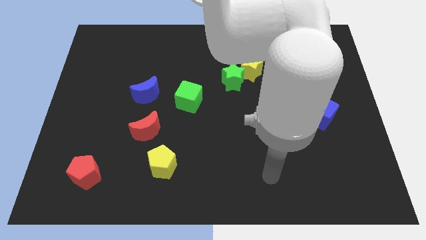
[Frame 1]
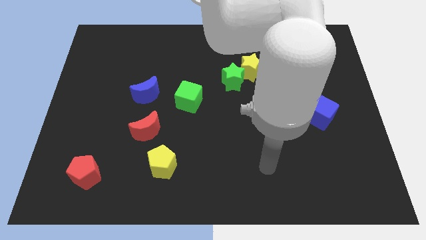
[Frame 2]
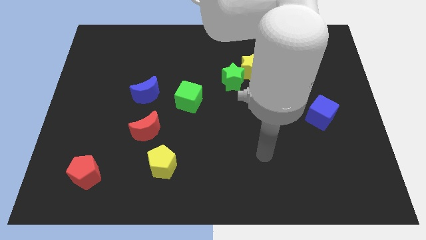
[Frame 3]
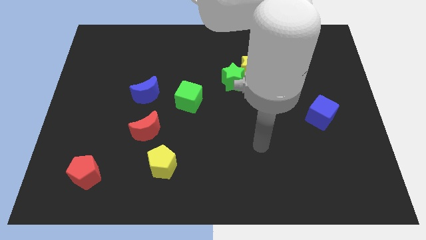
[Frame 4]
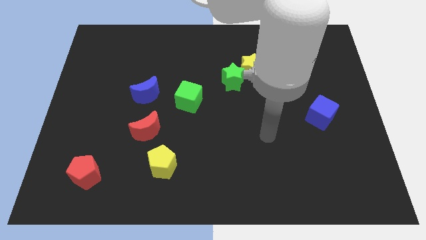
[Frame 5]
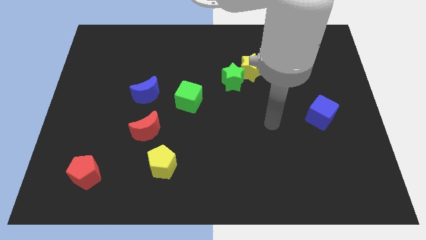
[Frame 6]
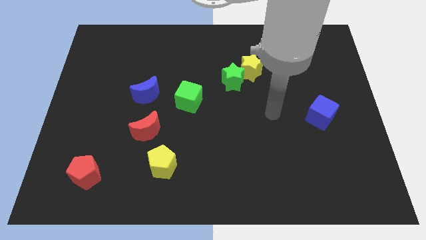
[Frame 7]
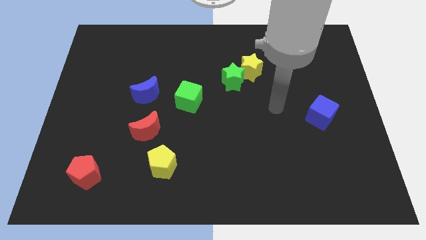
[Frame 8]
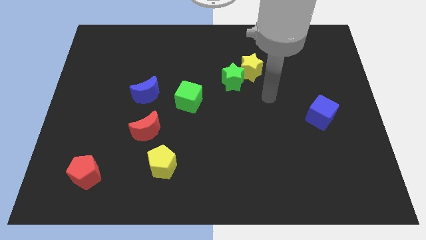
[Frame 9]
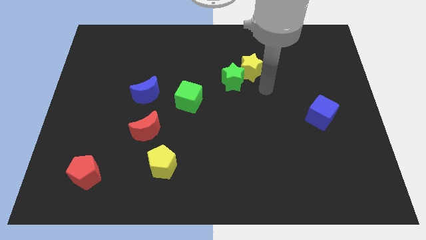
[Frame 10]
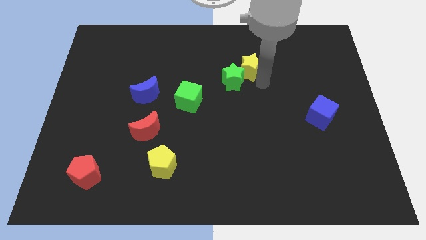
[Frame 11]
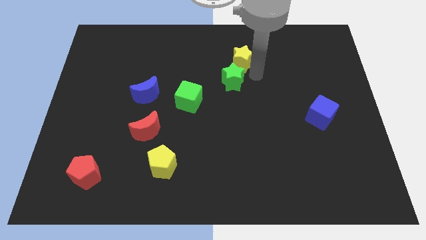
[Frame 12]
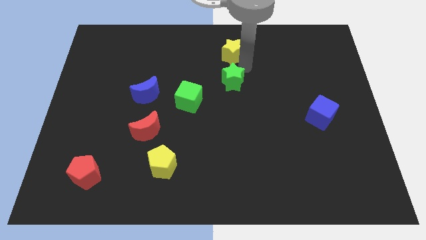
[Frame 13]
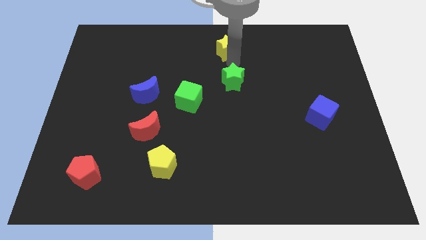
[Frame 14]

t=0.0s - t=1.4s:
separate the green star from the yellow star

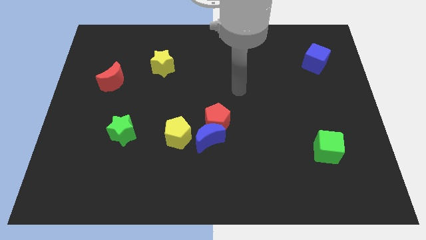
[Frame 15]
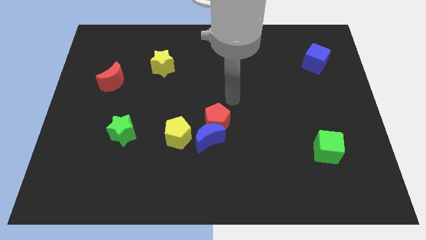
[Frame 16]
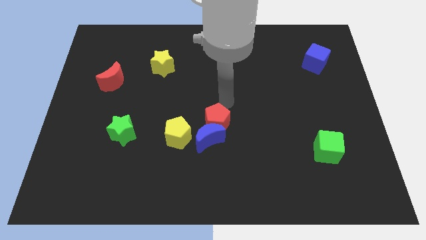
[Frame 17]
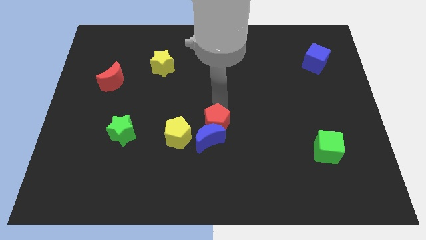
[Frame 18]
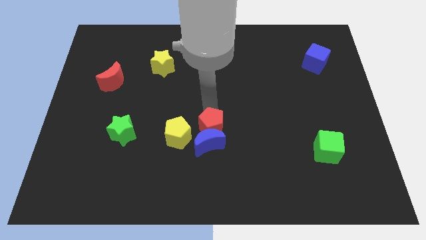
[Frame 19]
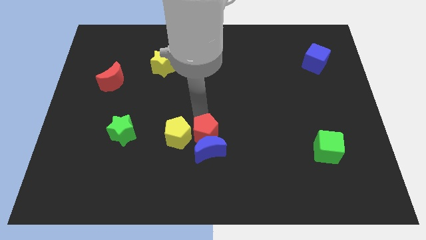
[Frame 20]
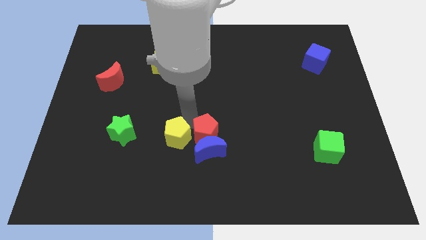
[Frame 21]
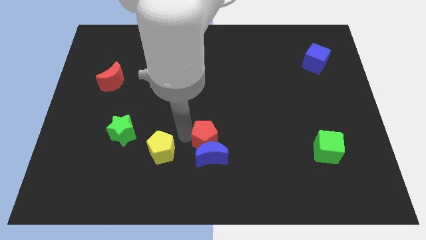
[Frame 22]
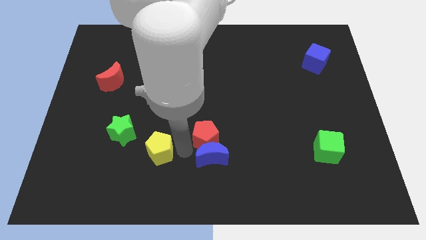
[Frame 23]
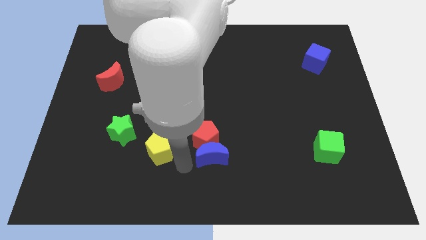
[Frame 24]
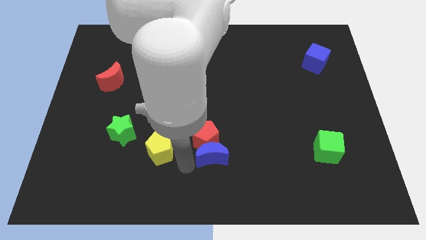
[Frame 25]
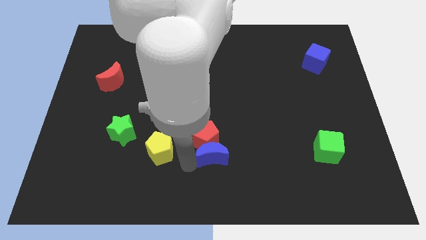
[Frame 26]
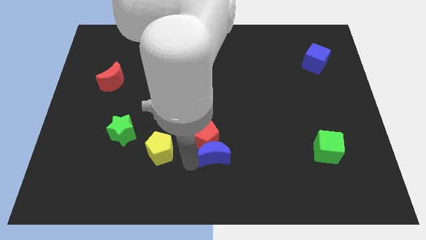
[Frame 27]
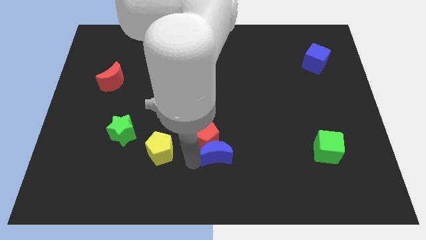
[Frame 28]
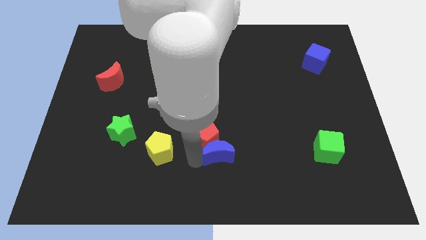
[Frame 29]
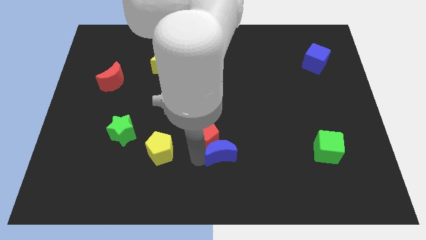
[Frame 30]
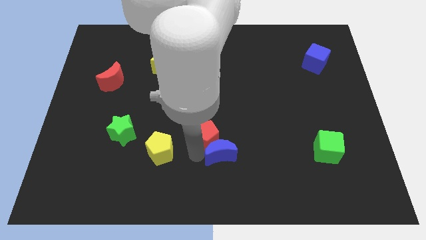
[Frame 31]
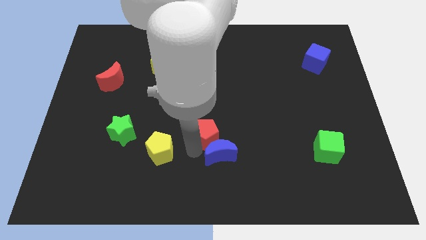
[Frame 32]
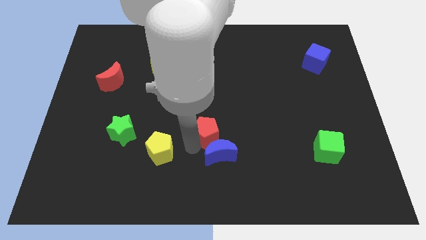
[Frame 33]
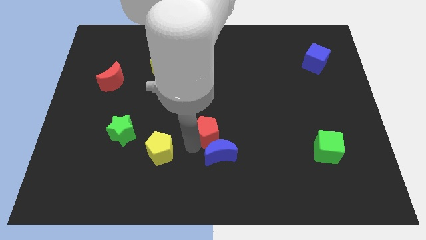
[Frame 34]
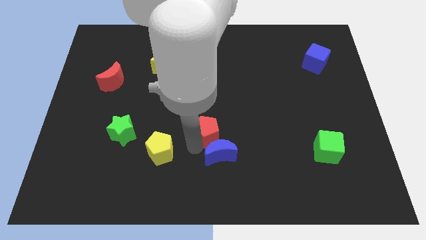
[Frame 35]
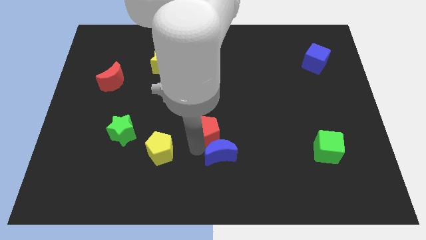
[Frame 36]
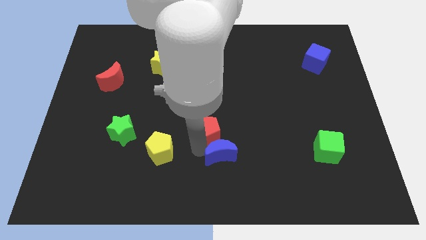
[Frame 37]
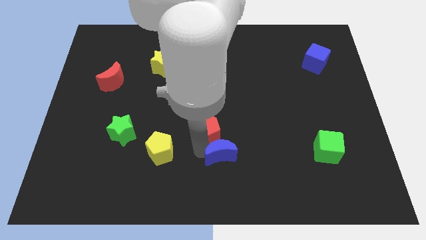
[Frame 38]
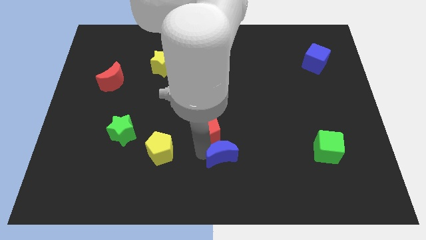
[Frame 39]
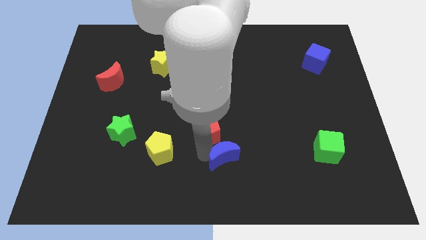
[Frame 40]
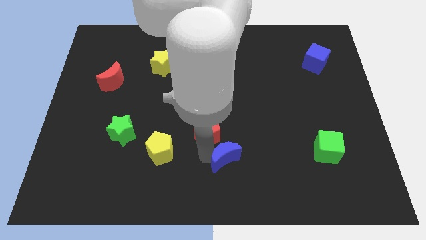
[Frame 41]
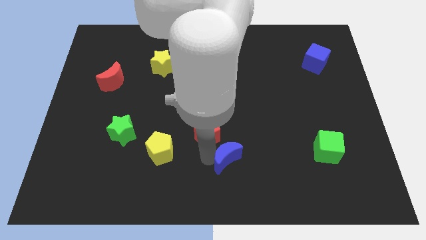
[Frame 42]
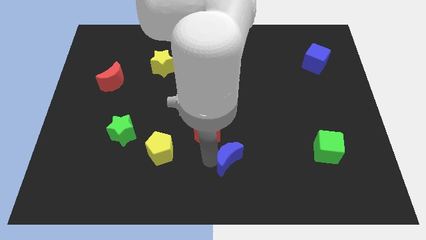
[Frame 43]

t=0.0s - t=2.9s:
move the blue moon away from the red pentagon and yellow pentagon

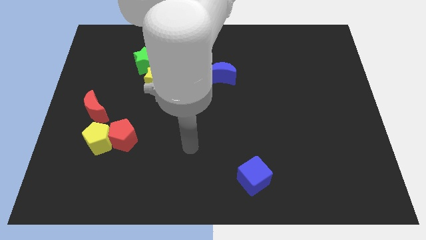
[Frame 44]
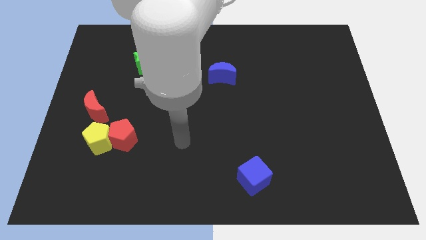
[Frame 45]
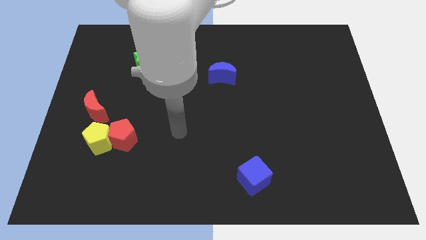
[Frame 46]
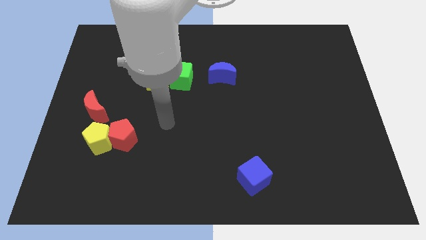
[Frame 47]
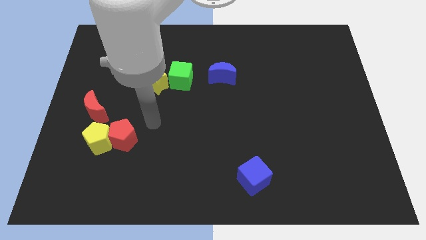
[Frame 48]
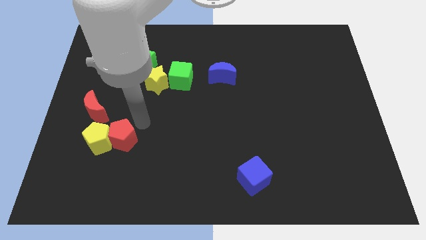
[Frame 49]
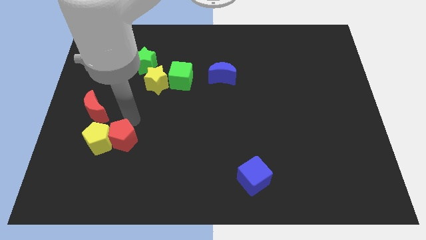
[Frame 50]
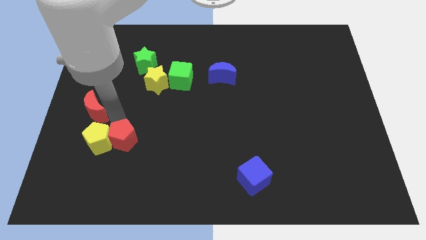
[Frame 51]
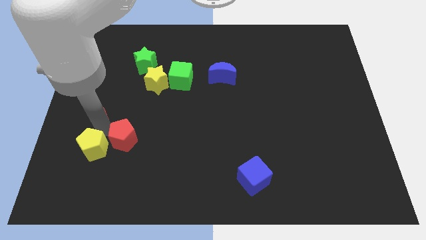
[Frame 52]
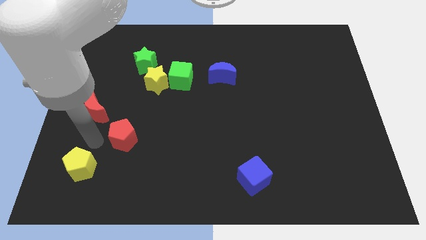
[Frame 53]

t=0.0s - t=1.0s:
separate the red pentagon from the yellow pentagon

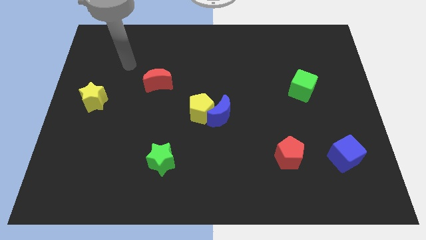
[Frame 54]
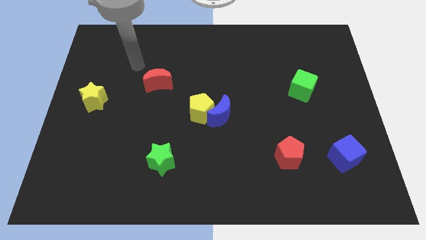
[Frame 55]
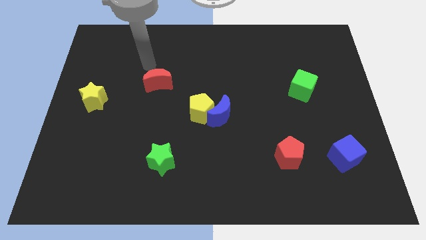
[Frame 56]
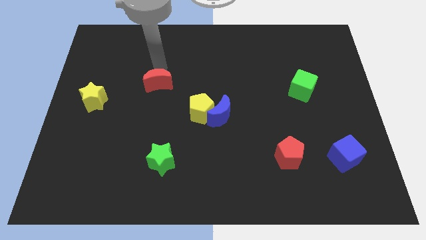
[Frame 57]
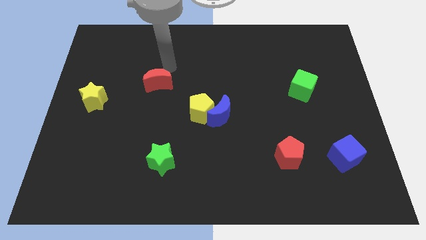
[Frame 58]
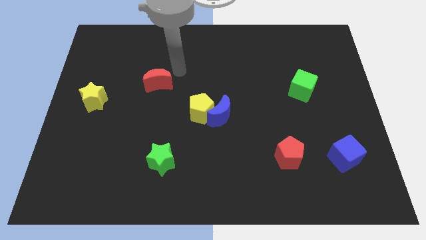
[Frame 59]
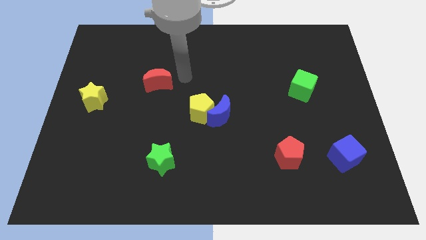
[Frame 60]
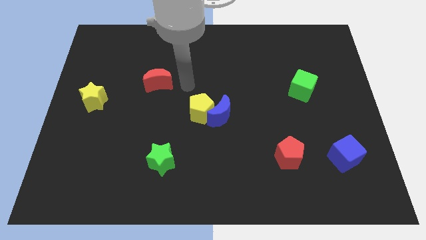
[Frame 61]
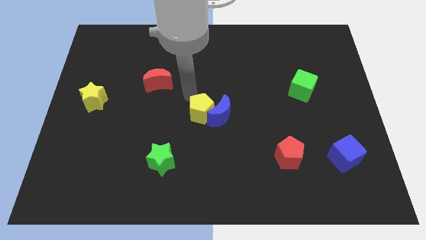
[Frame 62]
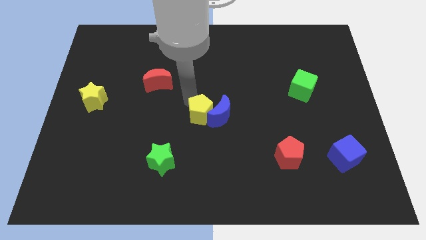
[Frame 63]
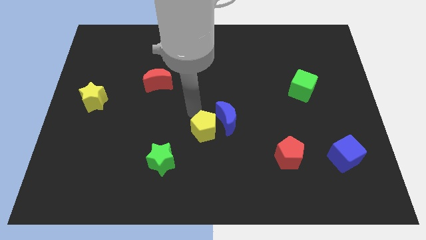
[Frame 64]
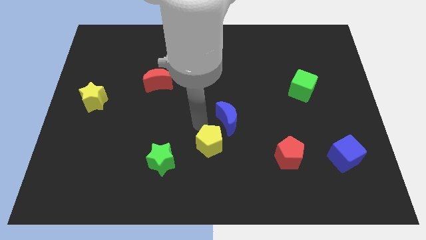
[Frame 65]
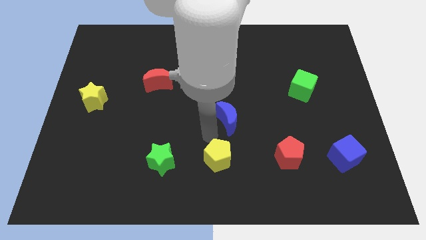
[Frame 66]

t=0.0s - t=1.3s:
pull the blue moon apart from the yellow pentagon

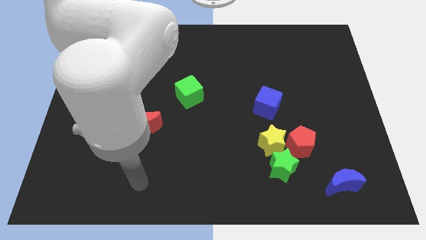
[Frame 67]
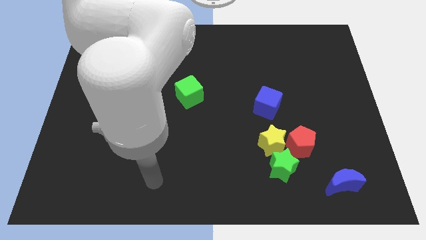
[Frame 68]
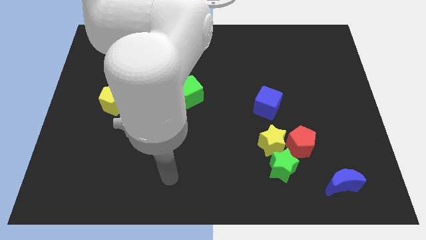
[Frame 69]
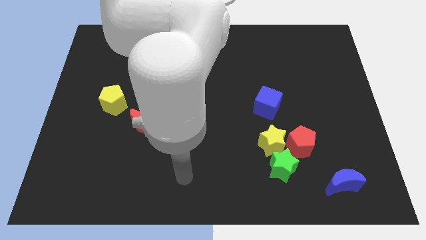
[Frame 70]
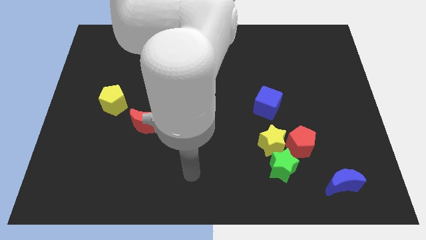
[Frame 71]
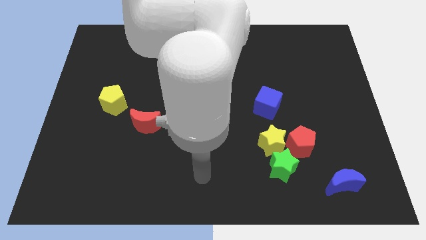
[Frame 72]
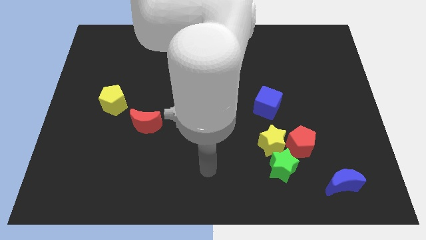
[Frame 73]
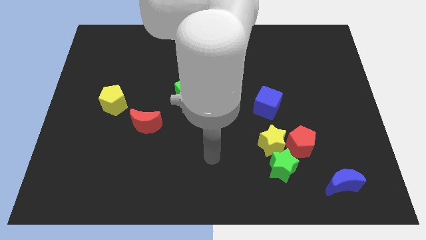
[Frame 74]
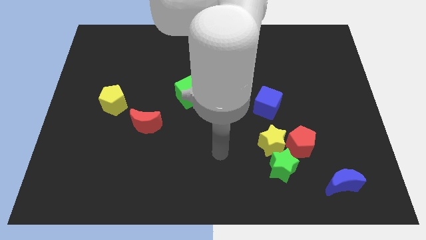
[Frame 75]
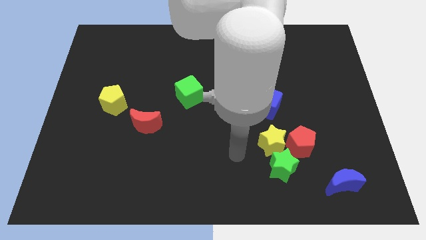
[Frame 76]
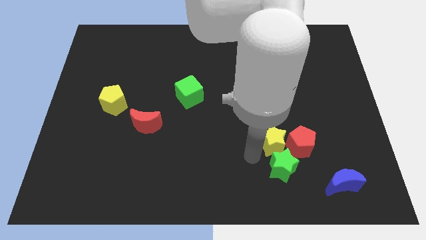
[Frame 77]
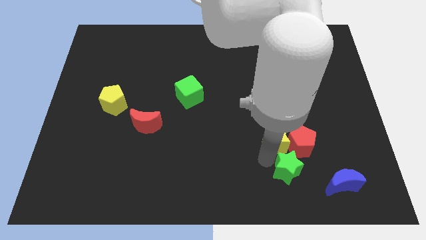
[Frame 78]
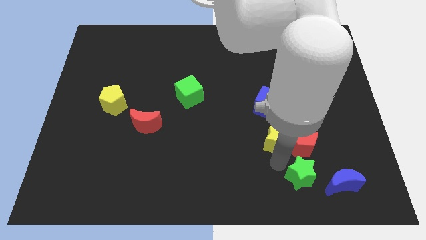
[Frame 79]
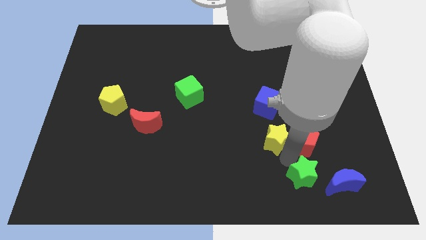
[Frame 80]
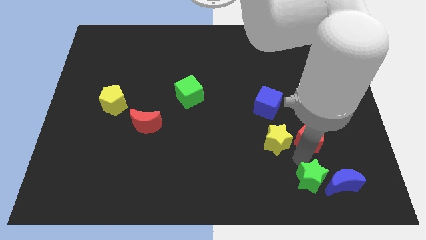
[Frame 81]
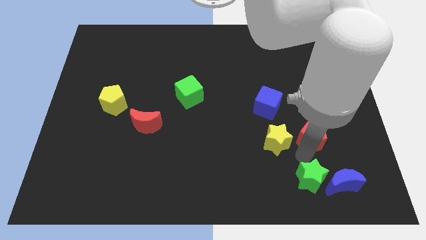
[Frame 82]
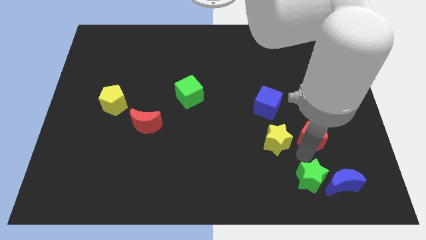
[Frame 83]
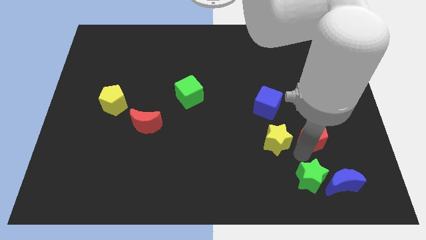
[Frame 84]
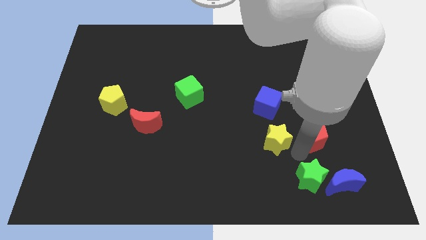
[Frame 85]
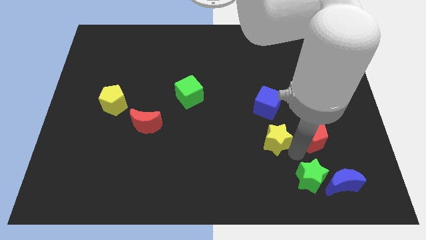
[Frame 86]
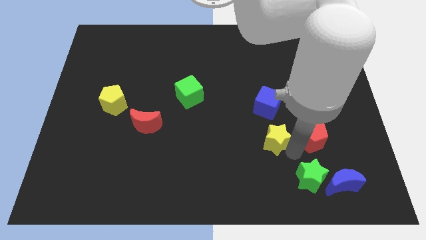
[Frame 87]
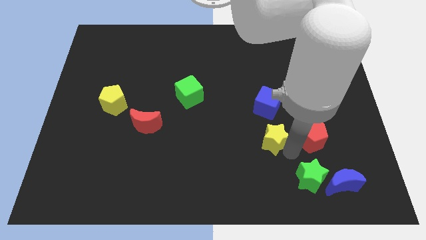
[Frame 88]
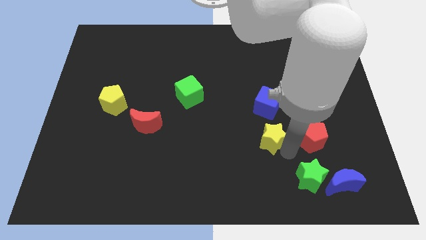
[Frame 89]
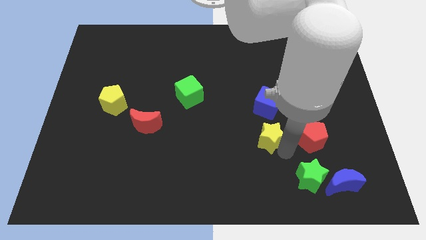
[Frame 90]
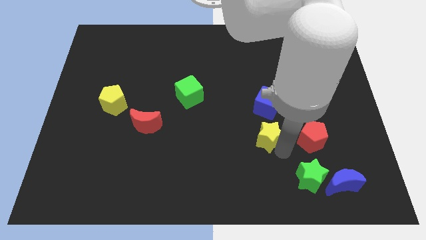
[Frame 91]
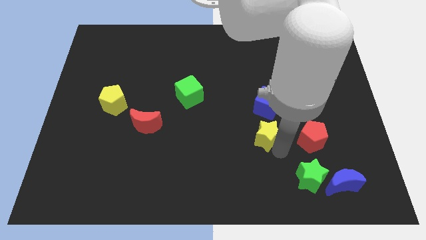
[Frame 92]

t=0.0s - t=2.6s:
separate the yellow star from the green star and red pentagon
